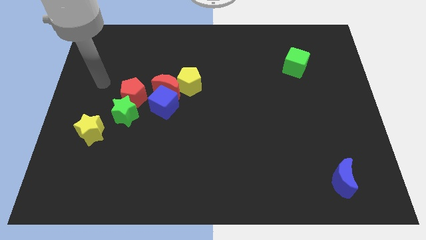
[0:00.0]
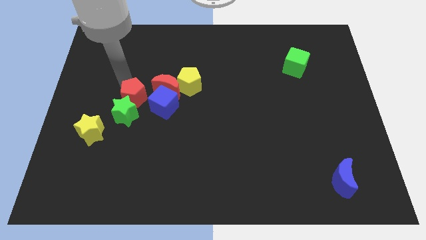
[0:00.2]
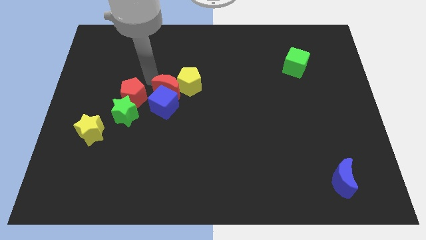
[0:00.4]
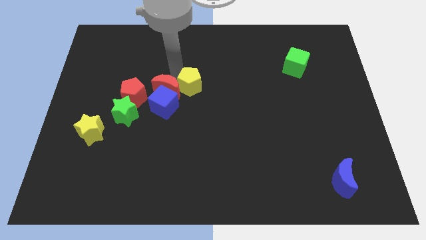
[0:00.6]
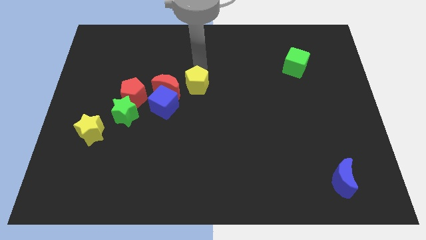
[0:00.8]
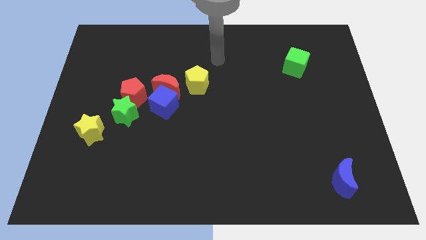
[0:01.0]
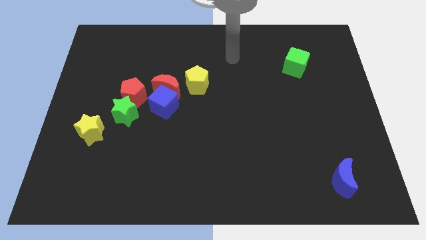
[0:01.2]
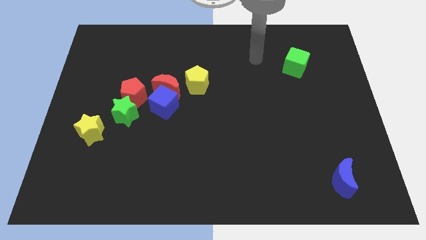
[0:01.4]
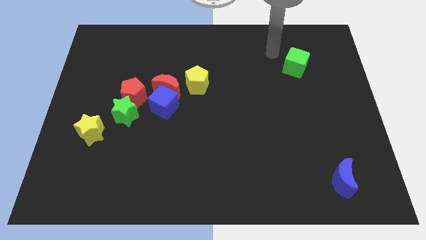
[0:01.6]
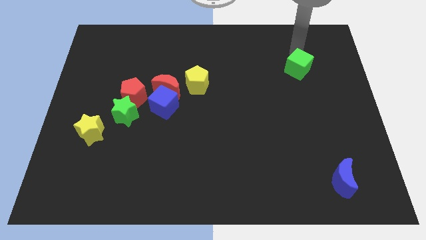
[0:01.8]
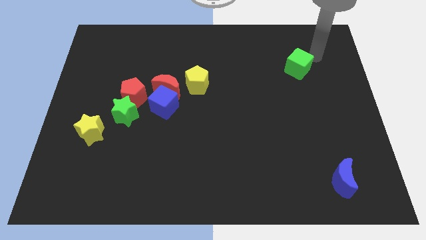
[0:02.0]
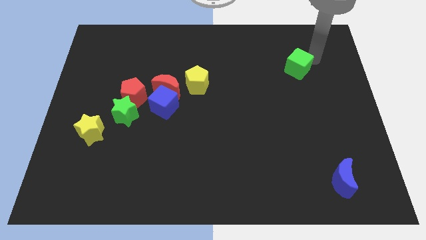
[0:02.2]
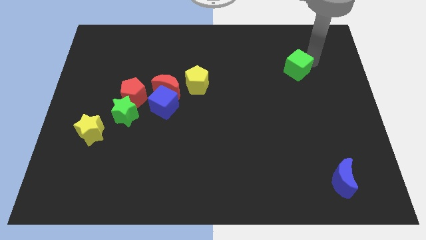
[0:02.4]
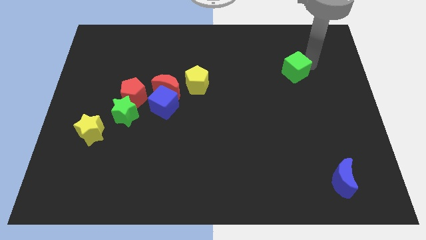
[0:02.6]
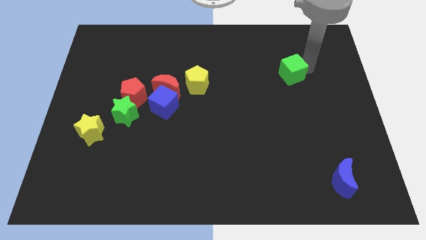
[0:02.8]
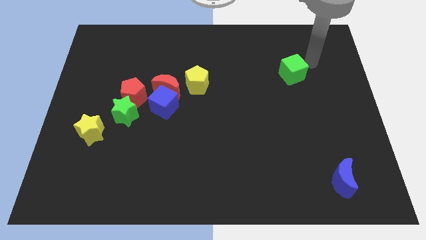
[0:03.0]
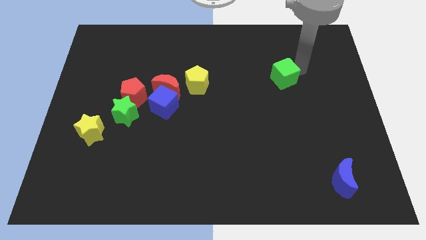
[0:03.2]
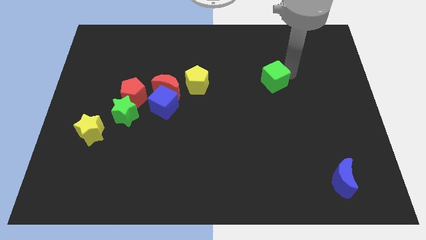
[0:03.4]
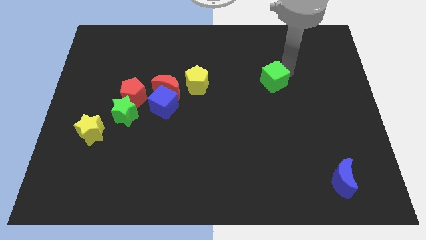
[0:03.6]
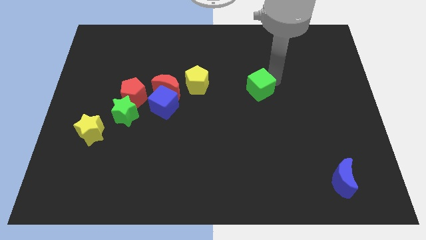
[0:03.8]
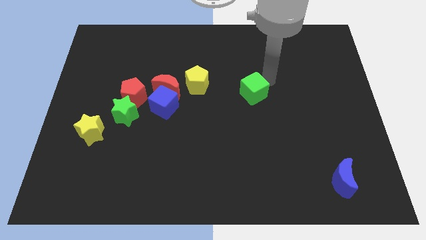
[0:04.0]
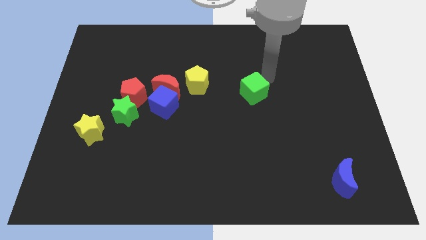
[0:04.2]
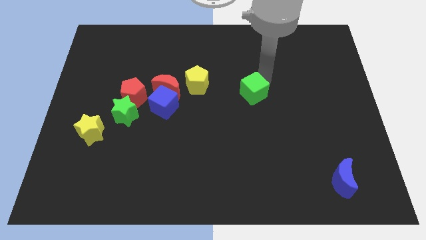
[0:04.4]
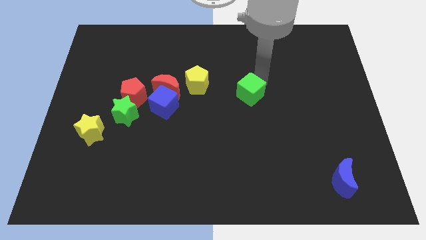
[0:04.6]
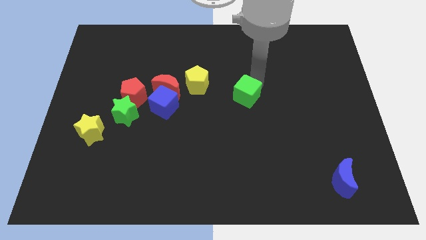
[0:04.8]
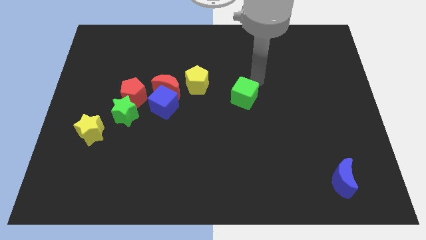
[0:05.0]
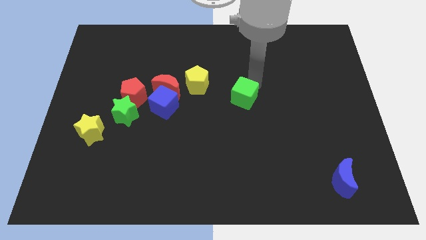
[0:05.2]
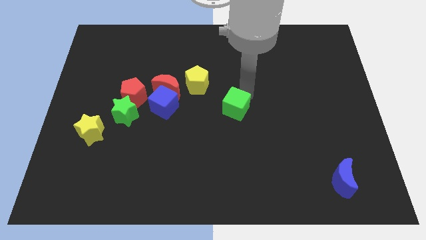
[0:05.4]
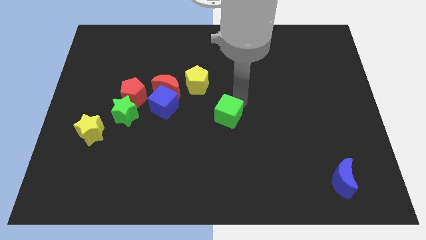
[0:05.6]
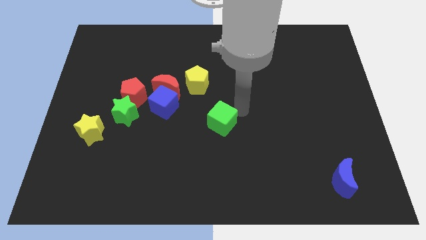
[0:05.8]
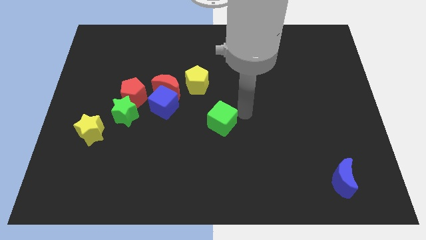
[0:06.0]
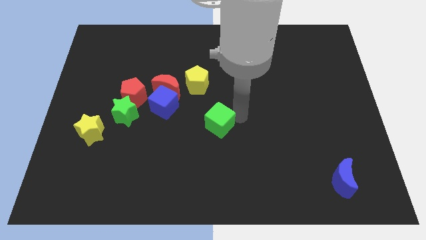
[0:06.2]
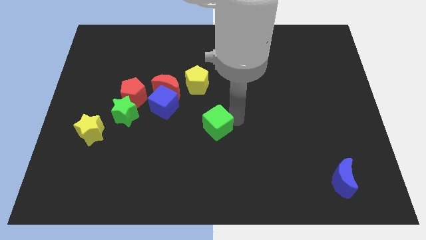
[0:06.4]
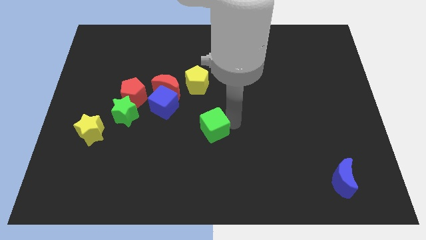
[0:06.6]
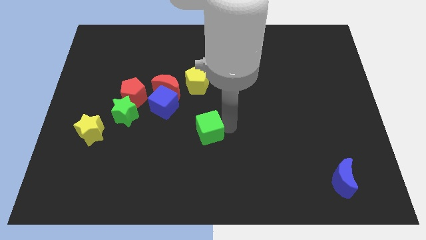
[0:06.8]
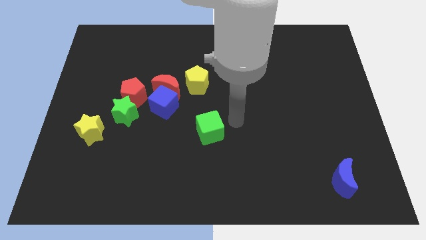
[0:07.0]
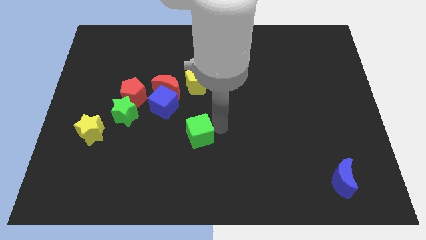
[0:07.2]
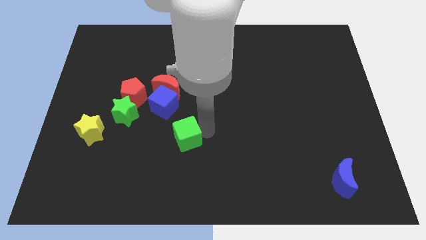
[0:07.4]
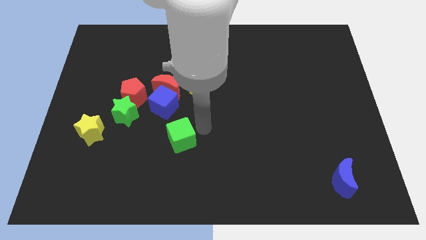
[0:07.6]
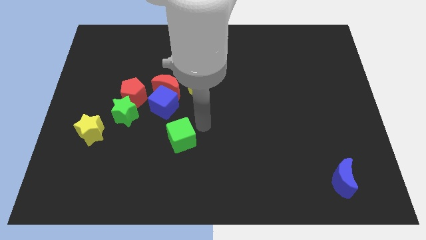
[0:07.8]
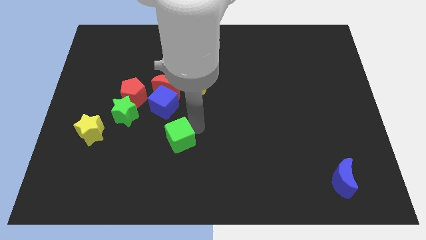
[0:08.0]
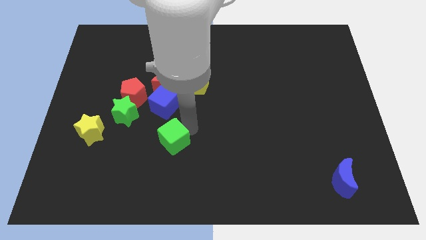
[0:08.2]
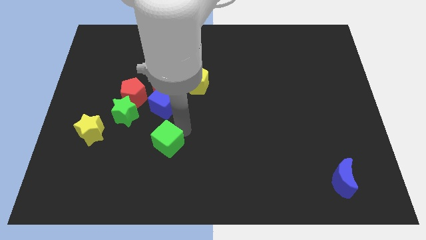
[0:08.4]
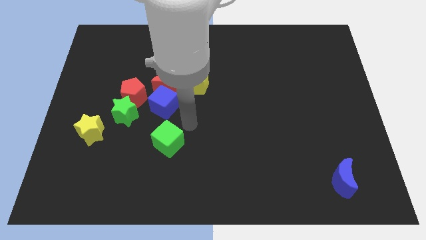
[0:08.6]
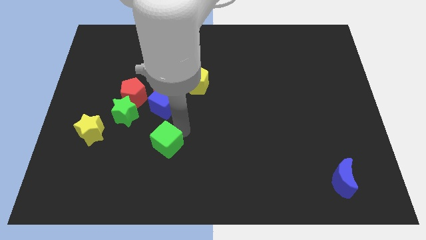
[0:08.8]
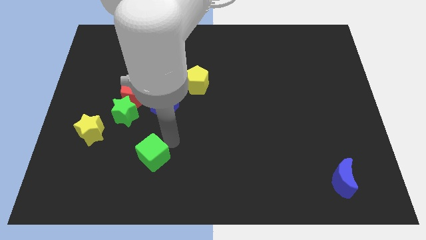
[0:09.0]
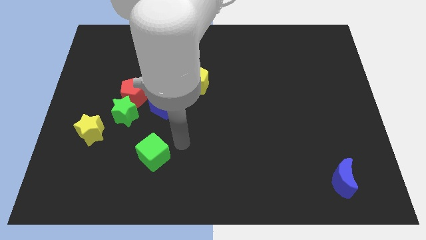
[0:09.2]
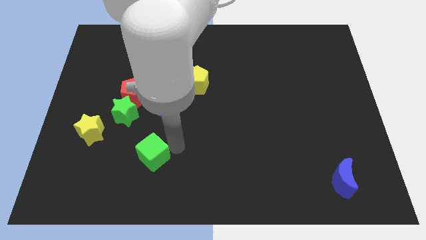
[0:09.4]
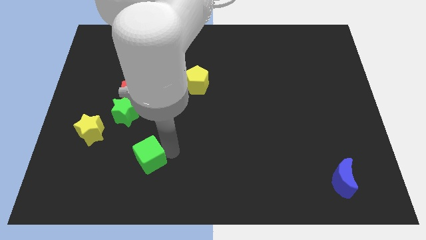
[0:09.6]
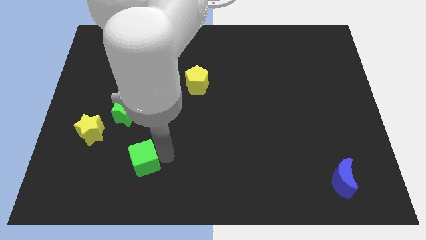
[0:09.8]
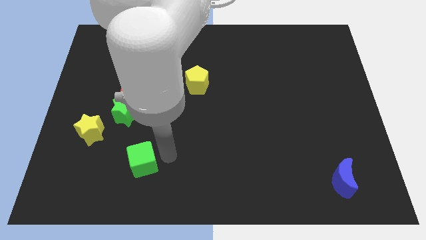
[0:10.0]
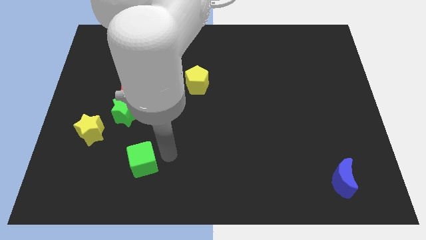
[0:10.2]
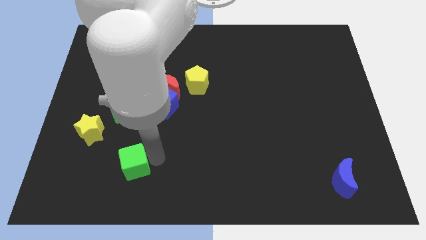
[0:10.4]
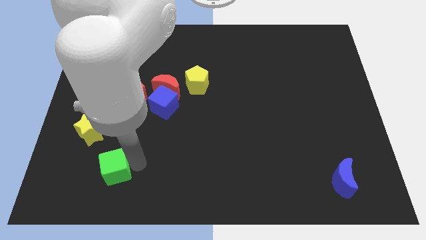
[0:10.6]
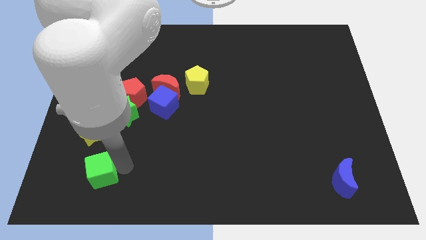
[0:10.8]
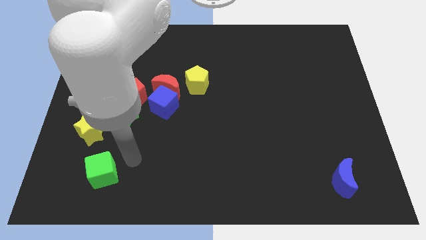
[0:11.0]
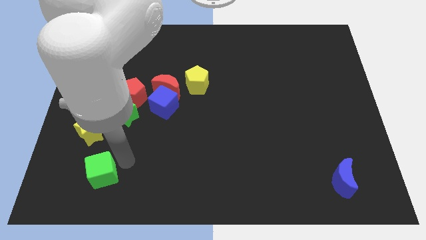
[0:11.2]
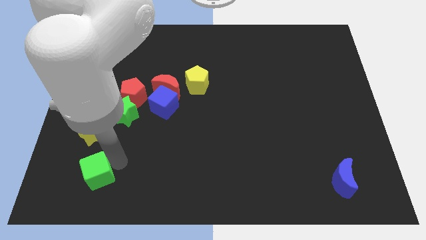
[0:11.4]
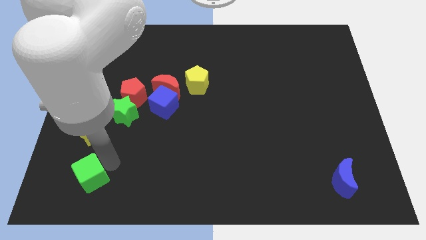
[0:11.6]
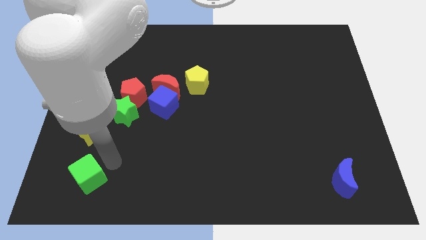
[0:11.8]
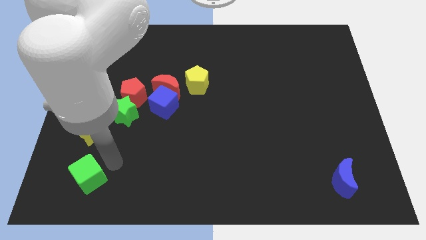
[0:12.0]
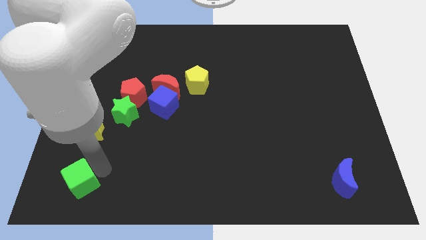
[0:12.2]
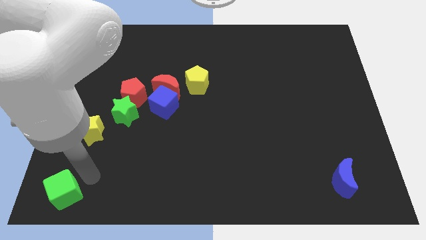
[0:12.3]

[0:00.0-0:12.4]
slide the green cube to the bottom left of the board

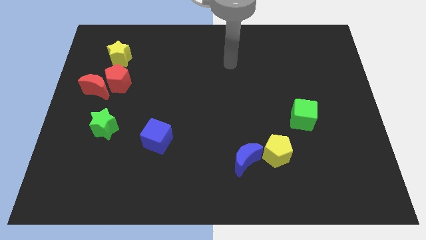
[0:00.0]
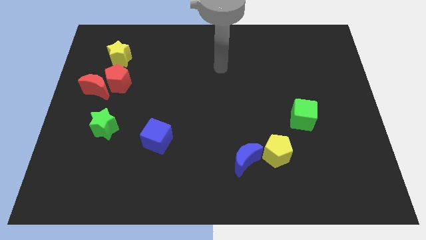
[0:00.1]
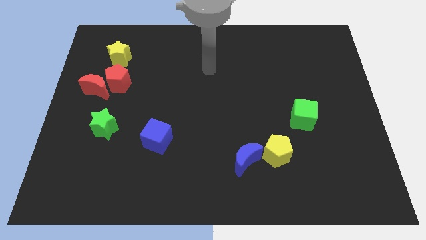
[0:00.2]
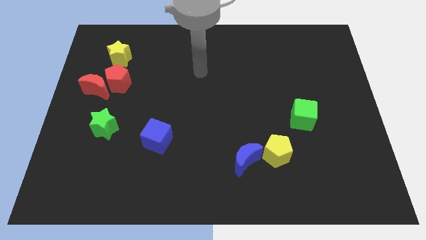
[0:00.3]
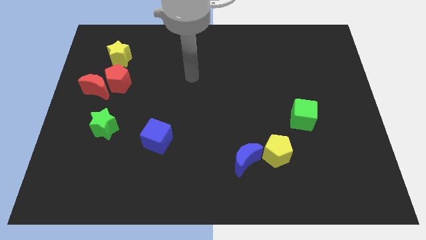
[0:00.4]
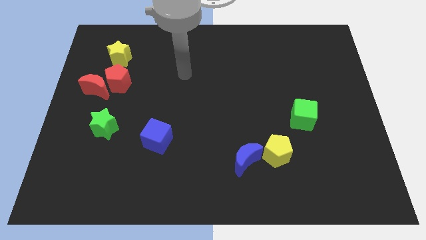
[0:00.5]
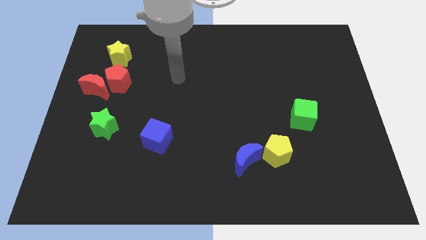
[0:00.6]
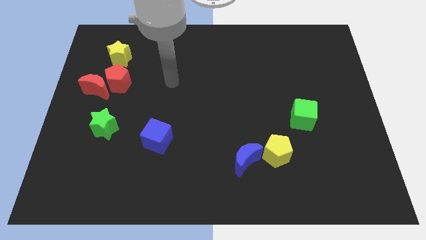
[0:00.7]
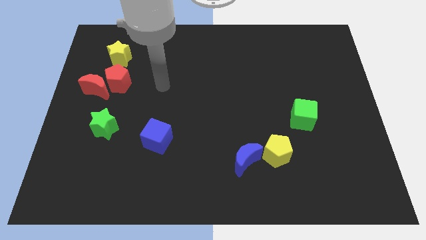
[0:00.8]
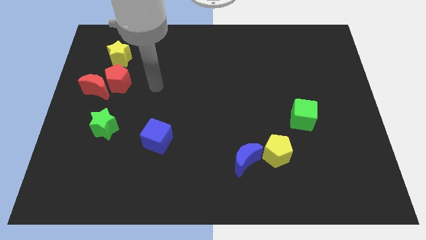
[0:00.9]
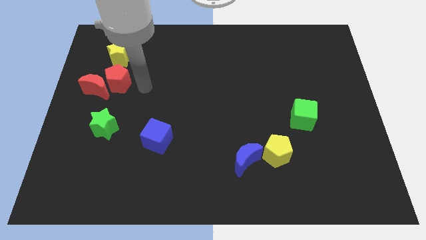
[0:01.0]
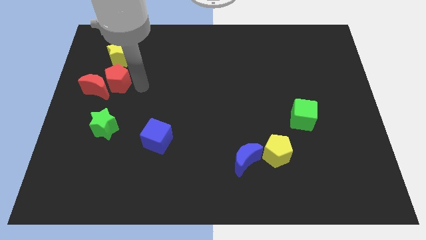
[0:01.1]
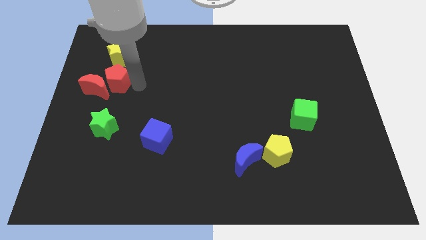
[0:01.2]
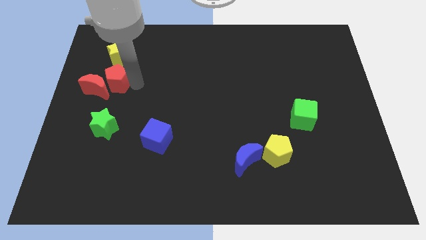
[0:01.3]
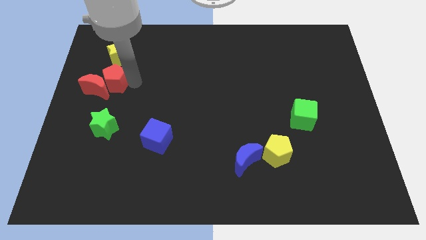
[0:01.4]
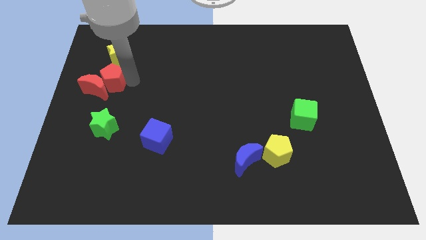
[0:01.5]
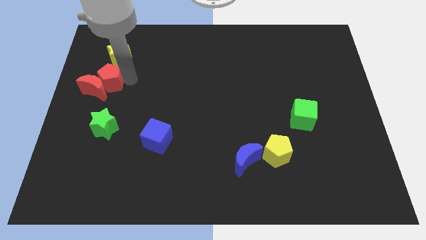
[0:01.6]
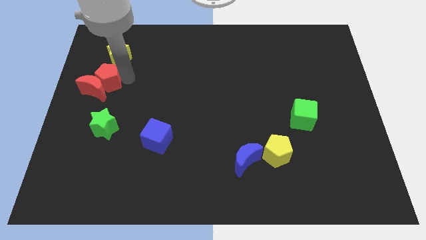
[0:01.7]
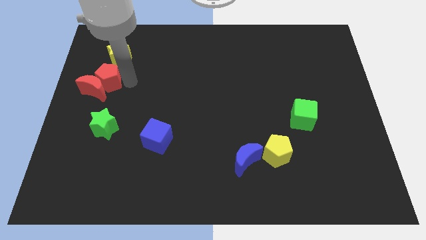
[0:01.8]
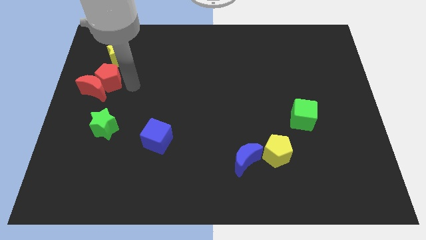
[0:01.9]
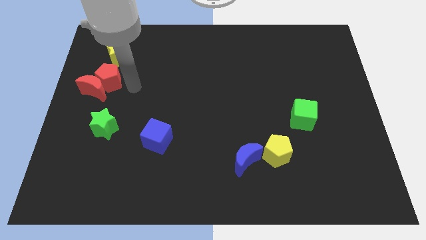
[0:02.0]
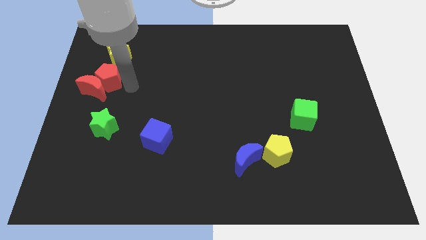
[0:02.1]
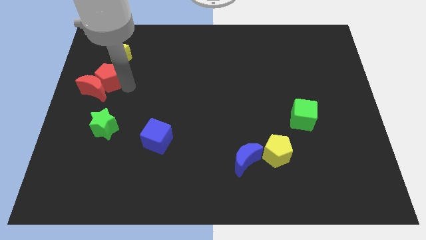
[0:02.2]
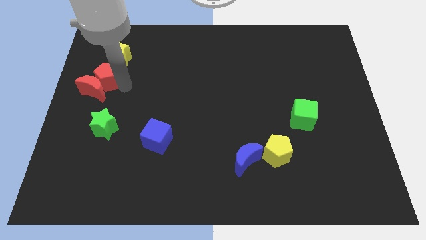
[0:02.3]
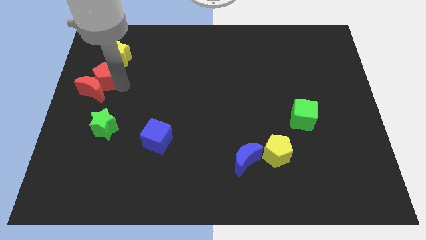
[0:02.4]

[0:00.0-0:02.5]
move the red pentagon to the center left
